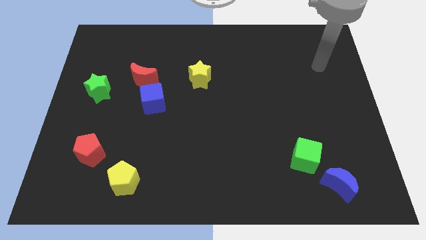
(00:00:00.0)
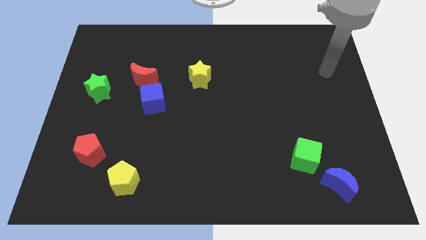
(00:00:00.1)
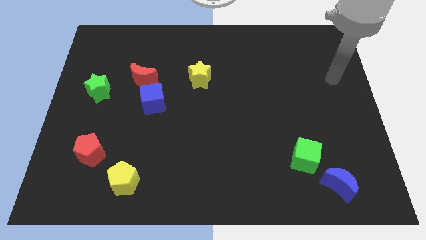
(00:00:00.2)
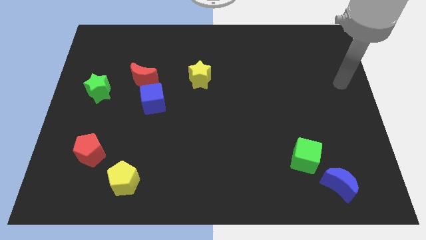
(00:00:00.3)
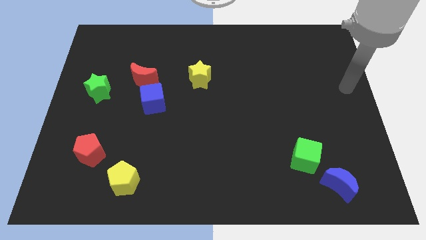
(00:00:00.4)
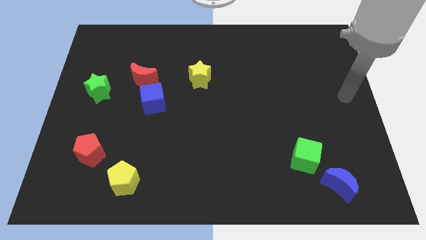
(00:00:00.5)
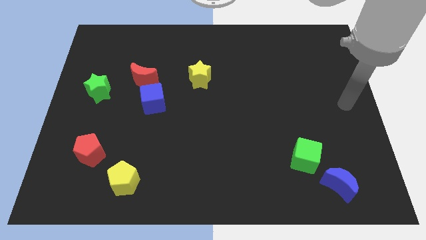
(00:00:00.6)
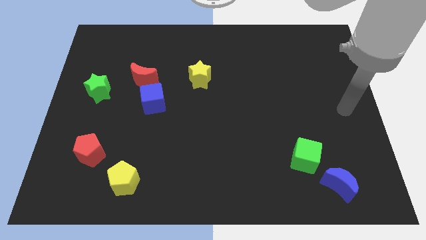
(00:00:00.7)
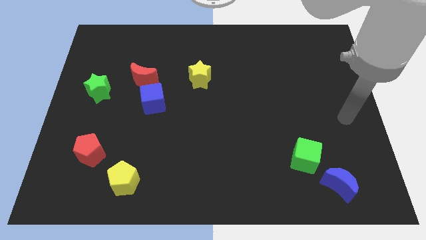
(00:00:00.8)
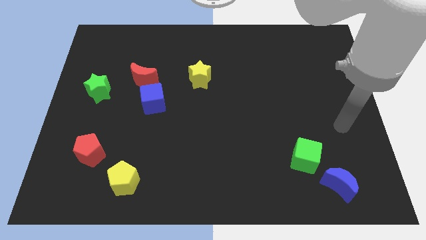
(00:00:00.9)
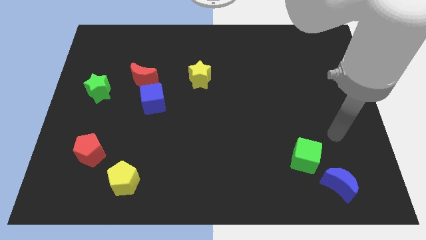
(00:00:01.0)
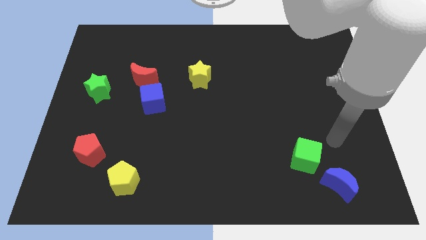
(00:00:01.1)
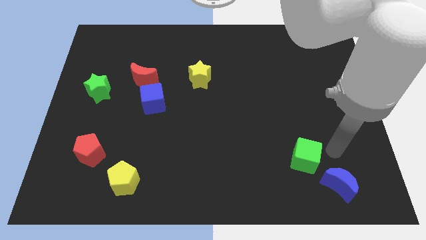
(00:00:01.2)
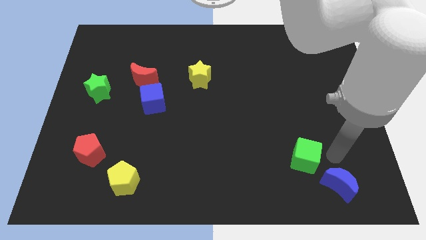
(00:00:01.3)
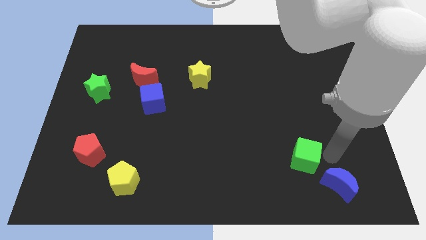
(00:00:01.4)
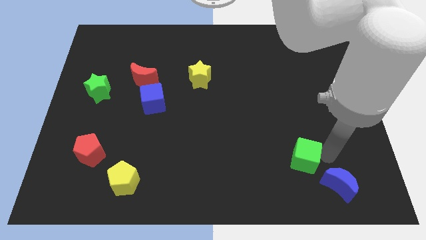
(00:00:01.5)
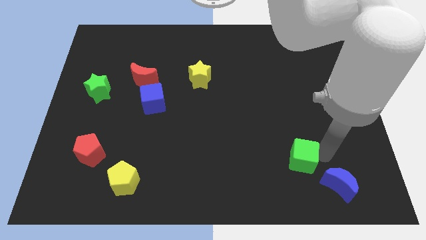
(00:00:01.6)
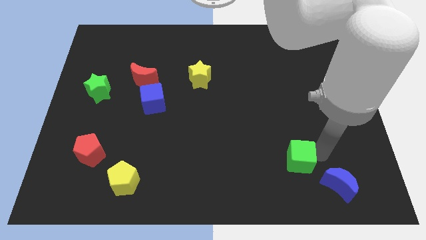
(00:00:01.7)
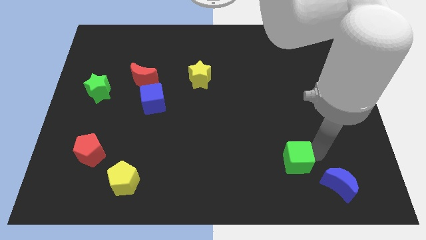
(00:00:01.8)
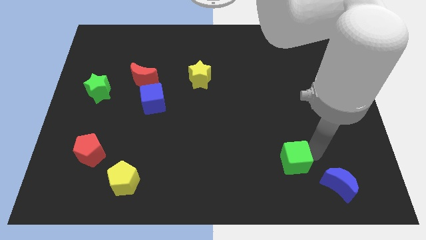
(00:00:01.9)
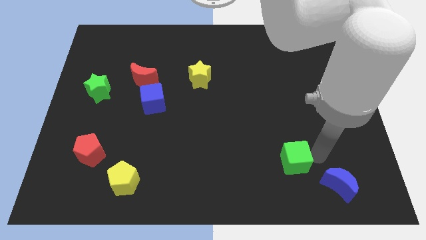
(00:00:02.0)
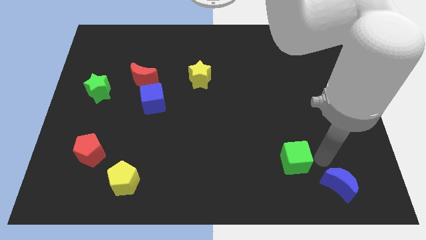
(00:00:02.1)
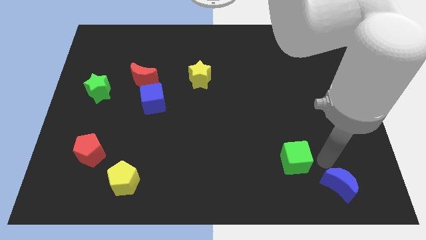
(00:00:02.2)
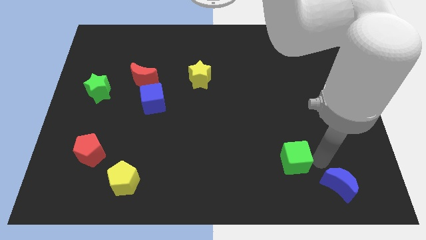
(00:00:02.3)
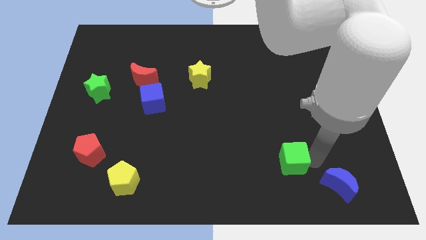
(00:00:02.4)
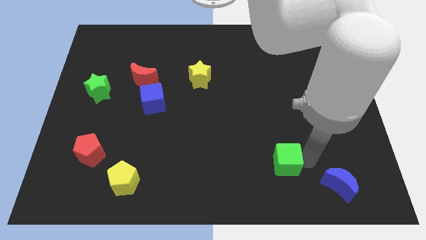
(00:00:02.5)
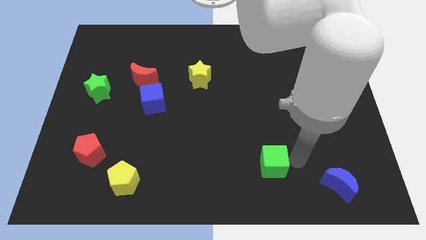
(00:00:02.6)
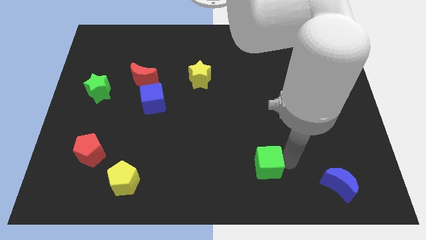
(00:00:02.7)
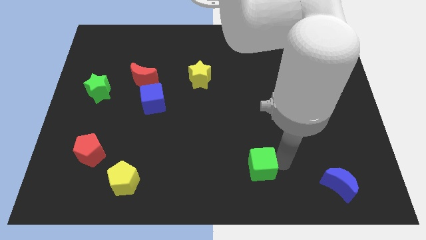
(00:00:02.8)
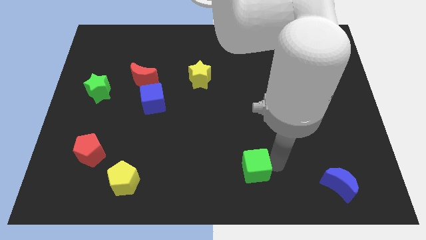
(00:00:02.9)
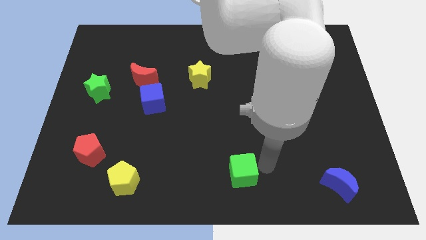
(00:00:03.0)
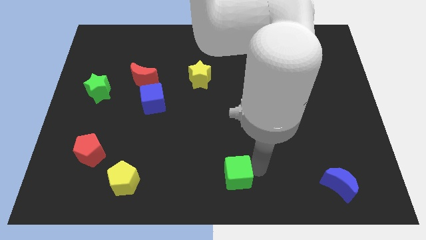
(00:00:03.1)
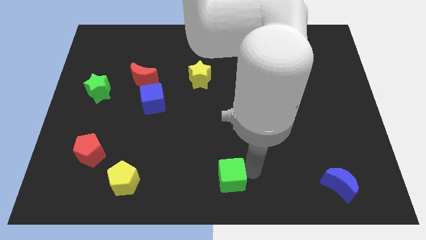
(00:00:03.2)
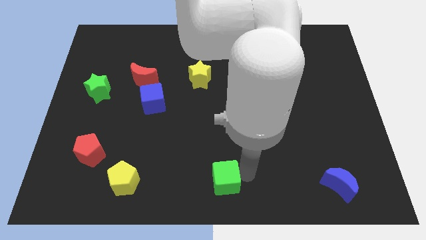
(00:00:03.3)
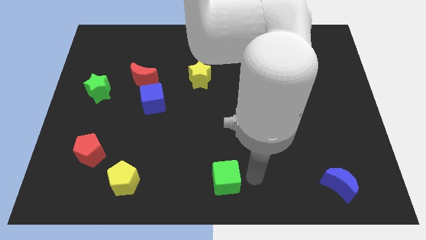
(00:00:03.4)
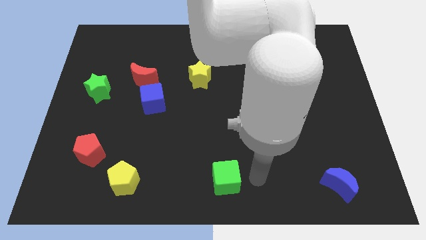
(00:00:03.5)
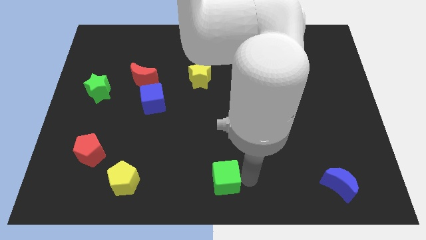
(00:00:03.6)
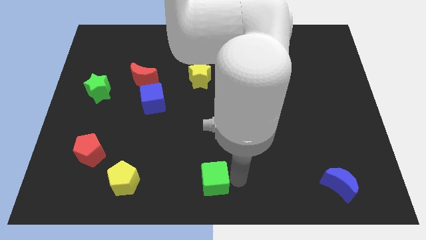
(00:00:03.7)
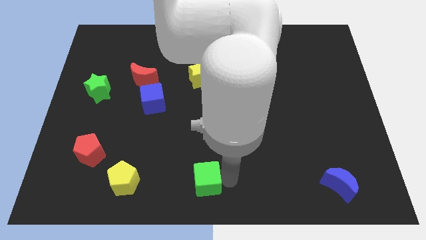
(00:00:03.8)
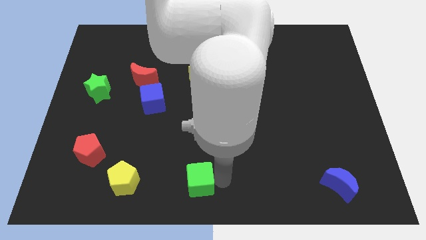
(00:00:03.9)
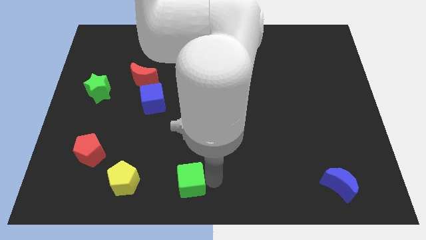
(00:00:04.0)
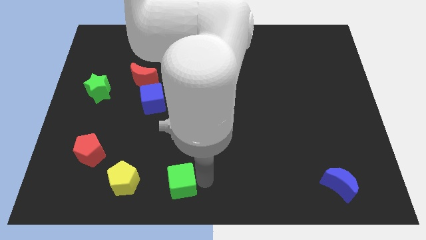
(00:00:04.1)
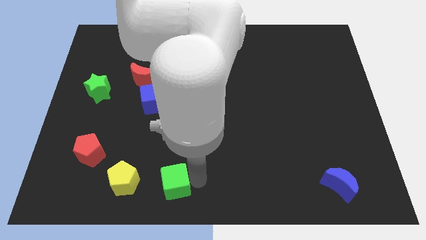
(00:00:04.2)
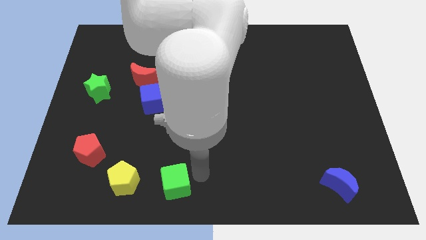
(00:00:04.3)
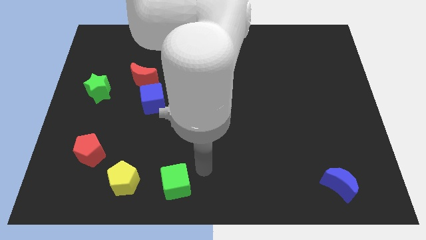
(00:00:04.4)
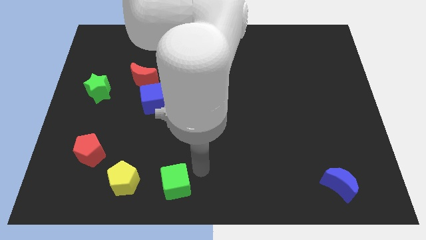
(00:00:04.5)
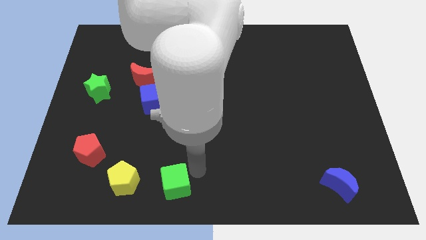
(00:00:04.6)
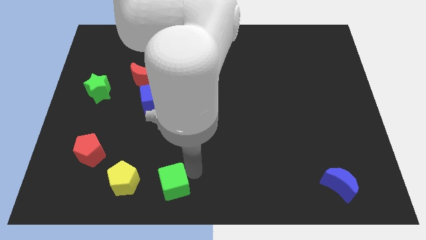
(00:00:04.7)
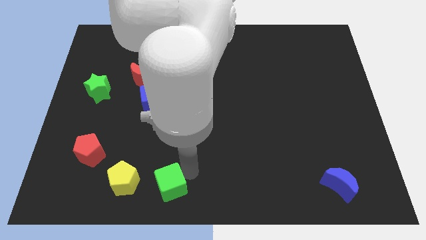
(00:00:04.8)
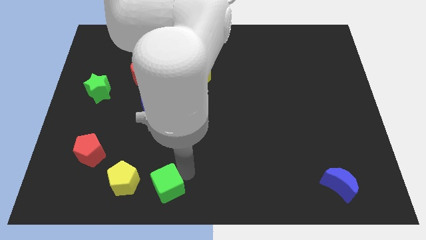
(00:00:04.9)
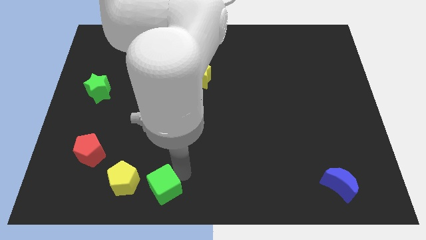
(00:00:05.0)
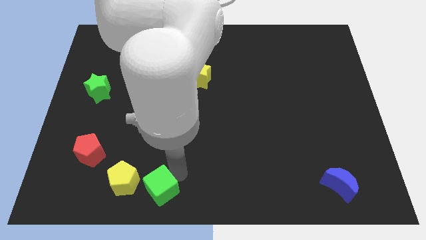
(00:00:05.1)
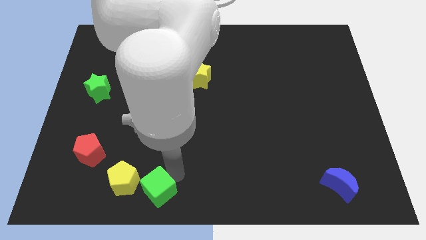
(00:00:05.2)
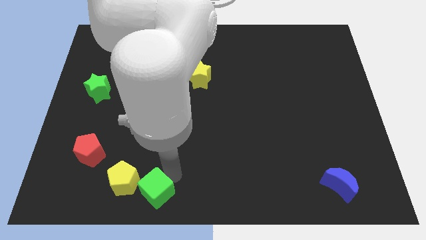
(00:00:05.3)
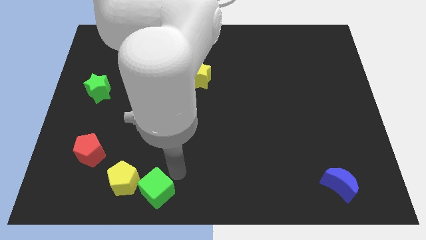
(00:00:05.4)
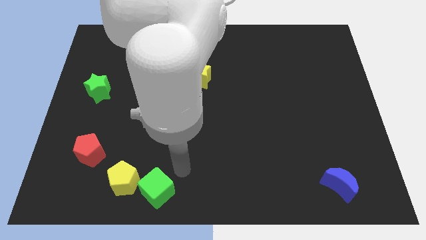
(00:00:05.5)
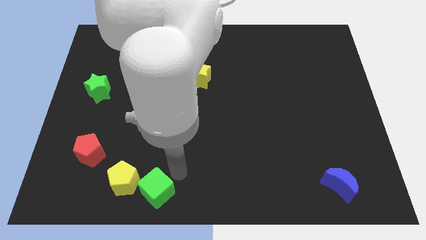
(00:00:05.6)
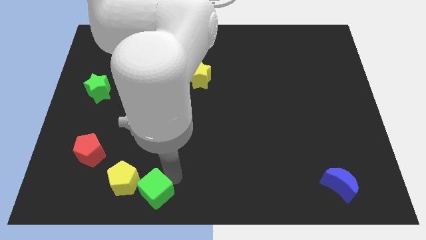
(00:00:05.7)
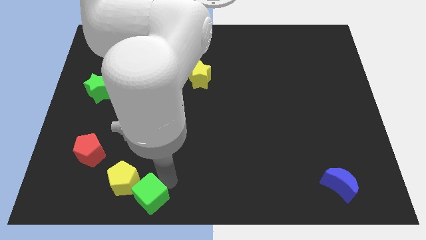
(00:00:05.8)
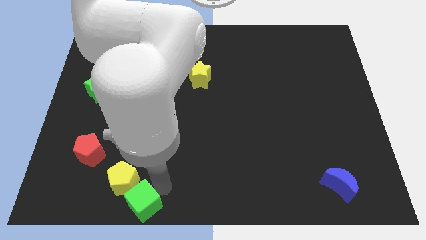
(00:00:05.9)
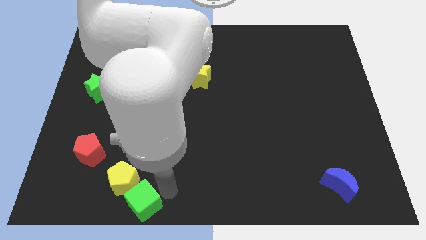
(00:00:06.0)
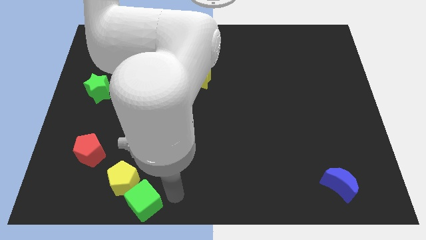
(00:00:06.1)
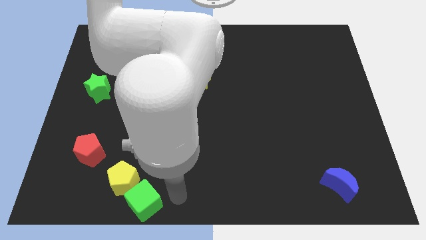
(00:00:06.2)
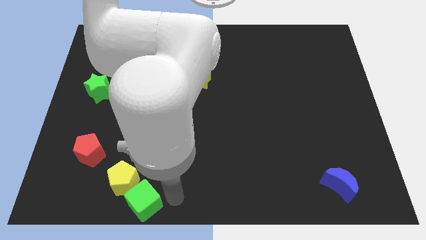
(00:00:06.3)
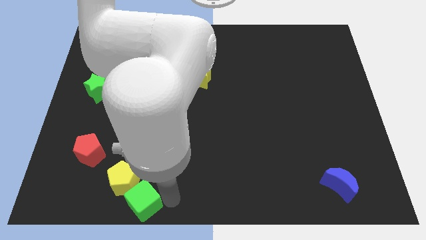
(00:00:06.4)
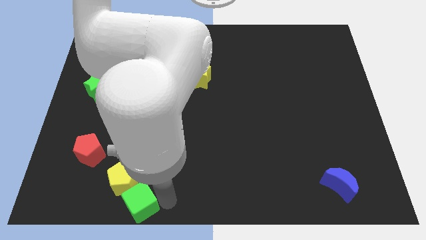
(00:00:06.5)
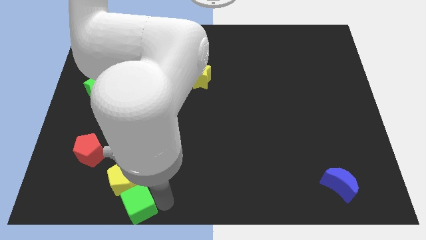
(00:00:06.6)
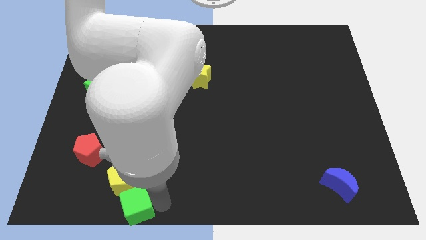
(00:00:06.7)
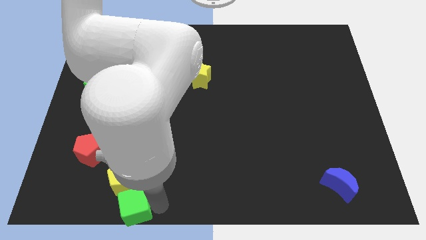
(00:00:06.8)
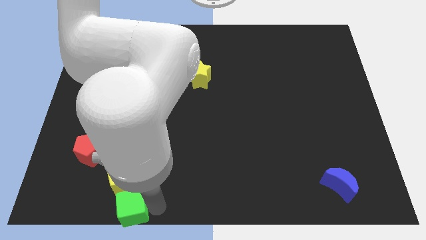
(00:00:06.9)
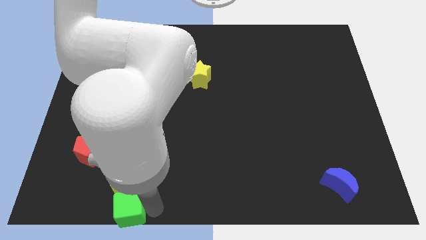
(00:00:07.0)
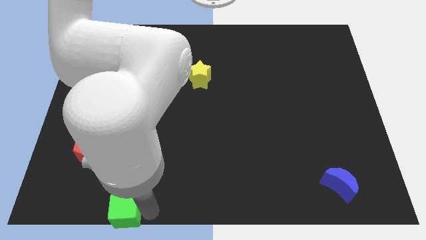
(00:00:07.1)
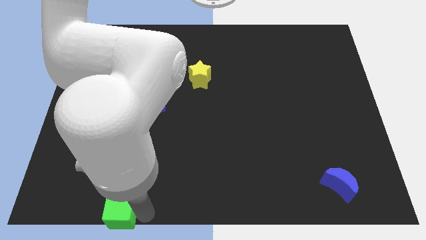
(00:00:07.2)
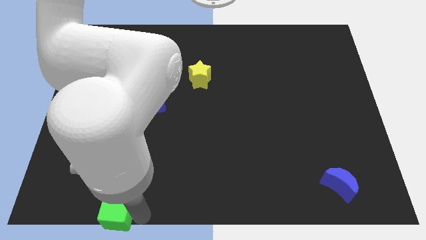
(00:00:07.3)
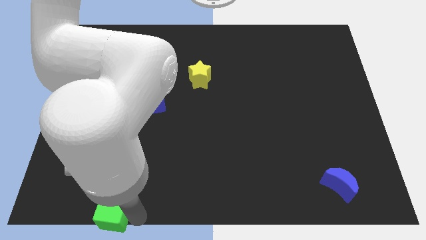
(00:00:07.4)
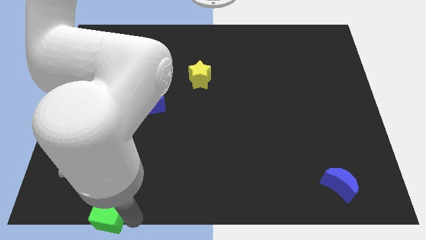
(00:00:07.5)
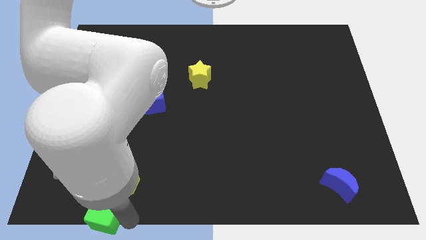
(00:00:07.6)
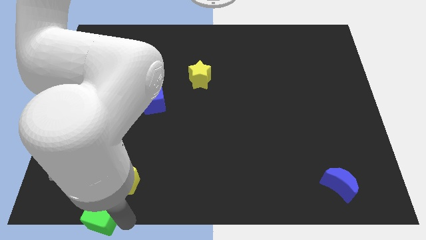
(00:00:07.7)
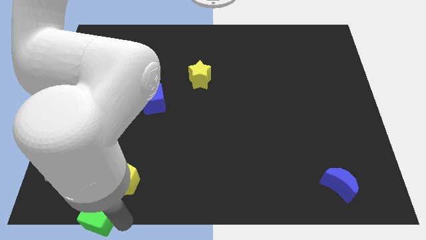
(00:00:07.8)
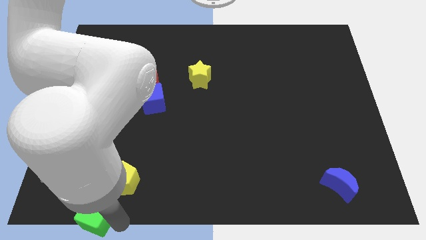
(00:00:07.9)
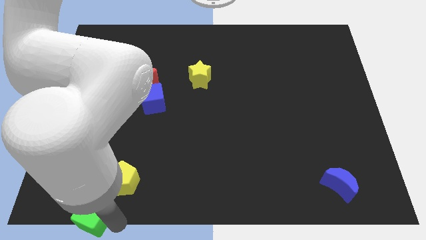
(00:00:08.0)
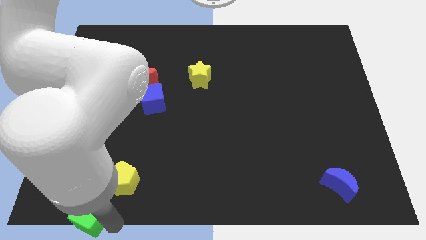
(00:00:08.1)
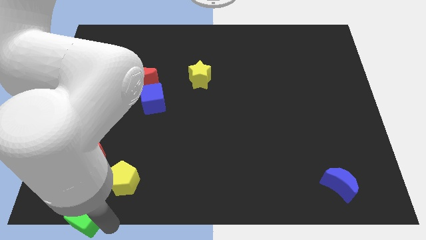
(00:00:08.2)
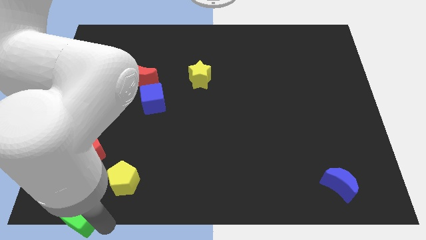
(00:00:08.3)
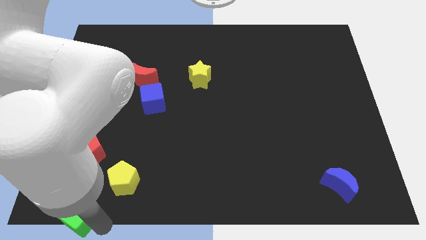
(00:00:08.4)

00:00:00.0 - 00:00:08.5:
push the green cube to the bottom left of the board
